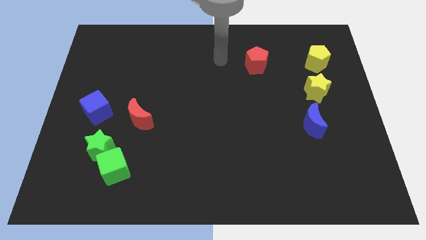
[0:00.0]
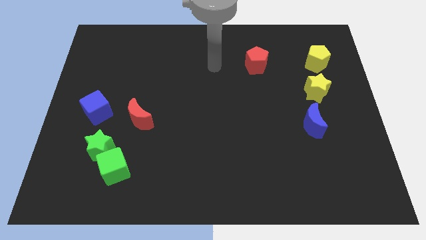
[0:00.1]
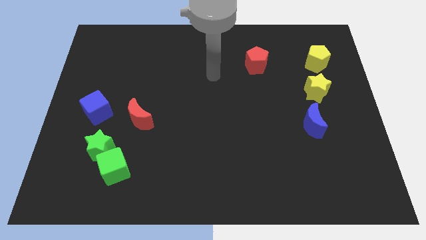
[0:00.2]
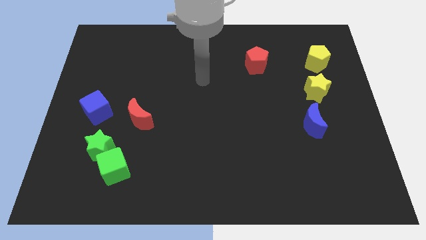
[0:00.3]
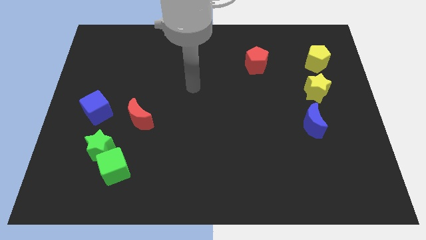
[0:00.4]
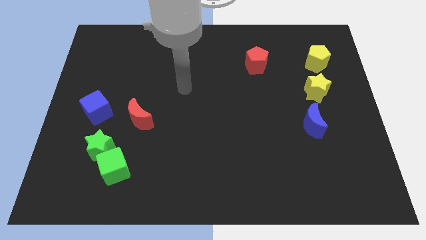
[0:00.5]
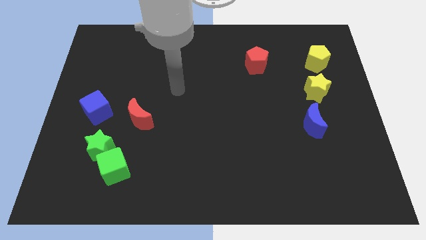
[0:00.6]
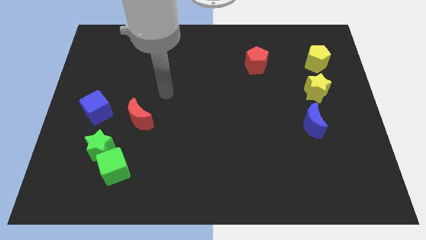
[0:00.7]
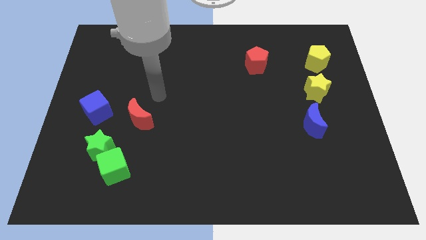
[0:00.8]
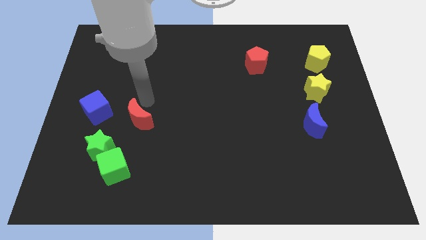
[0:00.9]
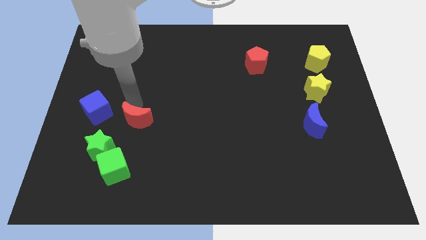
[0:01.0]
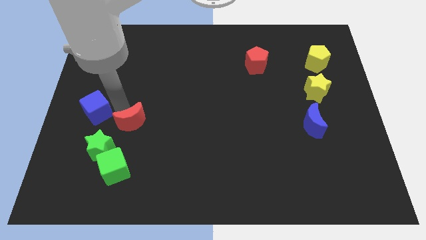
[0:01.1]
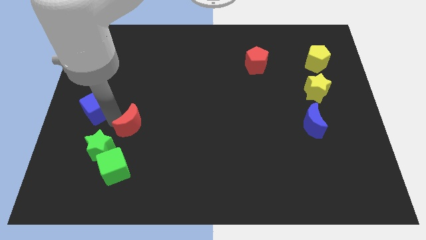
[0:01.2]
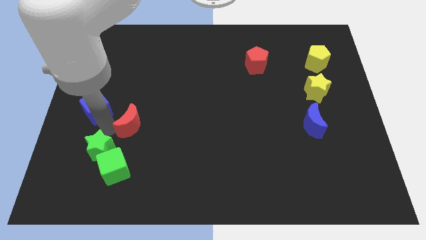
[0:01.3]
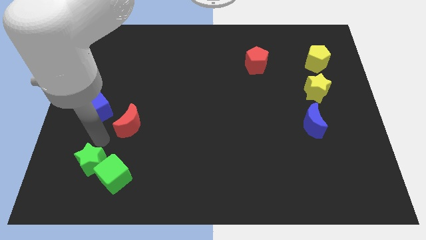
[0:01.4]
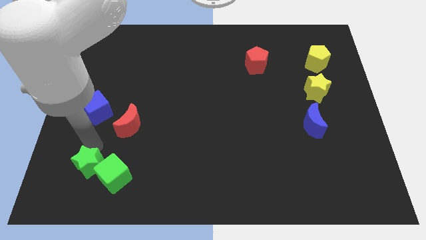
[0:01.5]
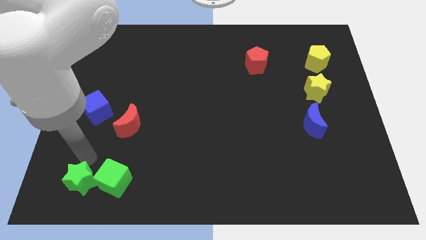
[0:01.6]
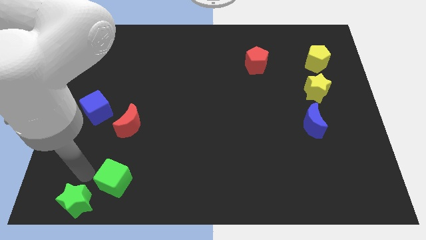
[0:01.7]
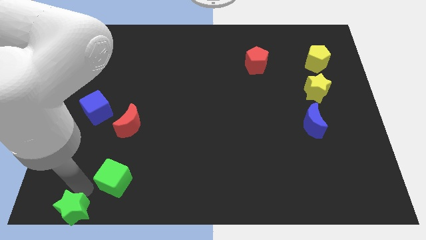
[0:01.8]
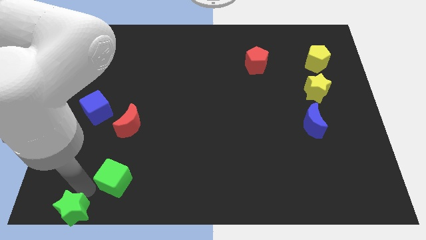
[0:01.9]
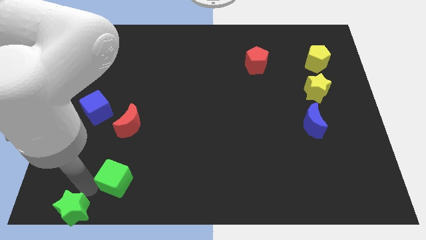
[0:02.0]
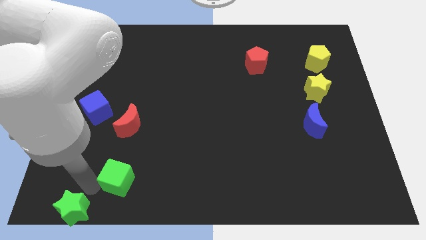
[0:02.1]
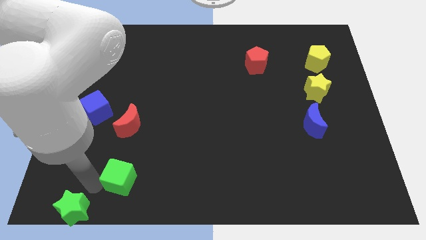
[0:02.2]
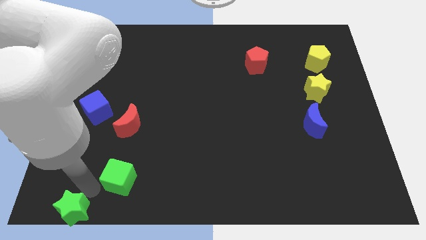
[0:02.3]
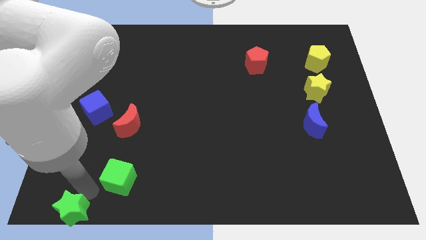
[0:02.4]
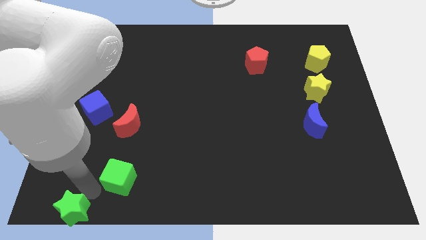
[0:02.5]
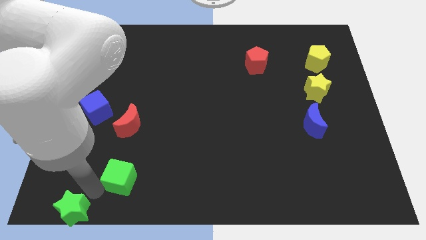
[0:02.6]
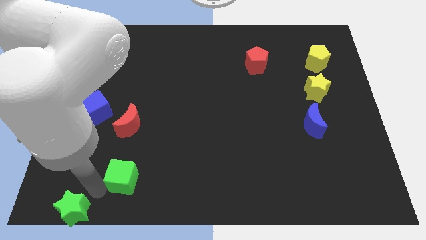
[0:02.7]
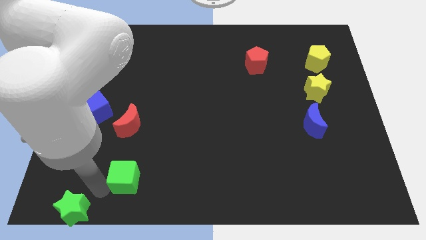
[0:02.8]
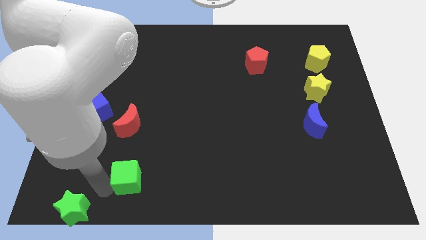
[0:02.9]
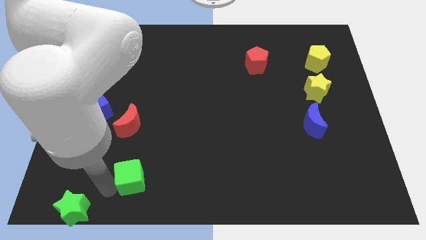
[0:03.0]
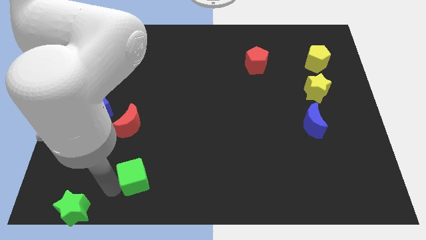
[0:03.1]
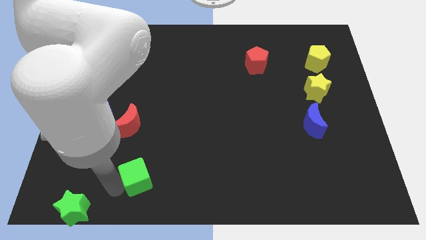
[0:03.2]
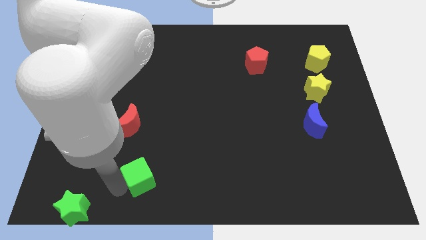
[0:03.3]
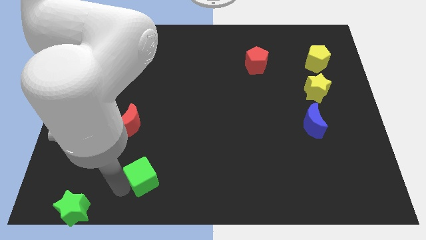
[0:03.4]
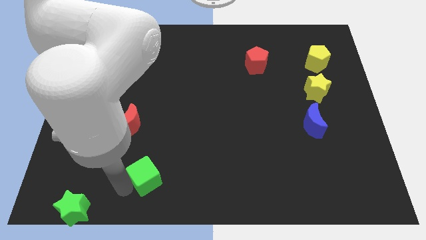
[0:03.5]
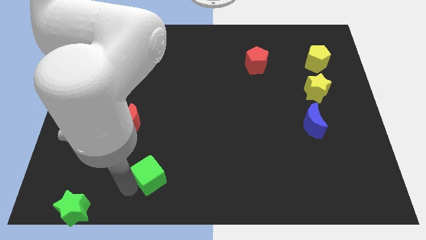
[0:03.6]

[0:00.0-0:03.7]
move the green cube right slightly

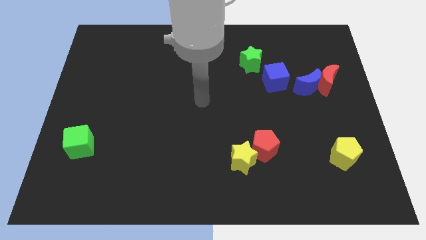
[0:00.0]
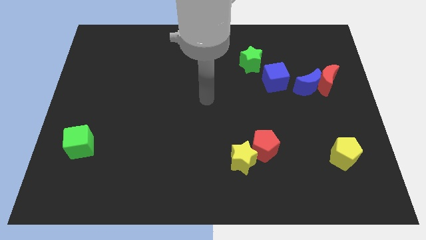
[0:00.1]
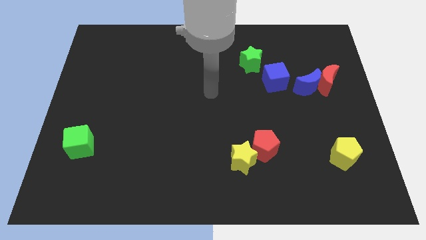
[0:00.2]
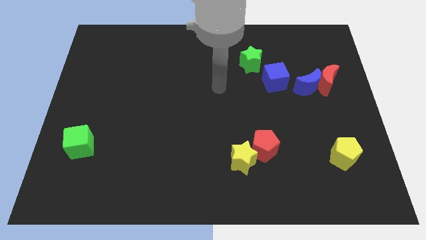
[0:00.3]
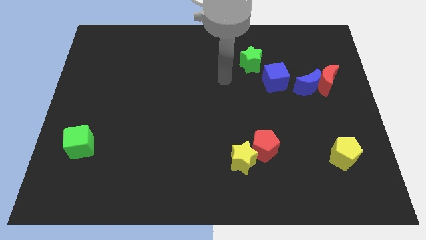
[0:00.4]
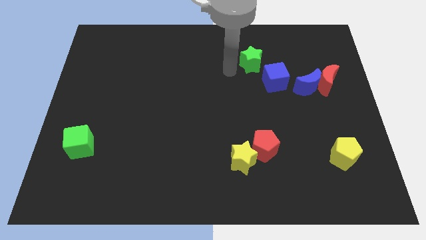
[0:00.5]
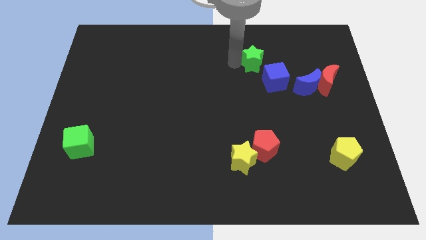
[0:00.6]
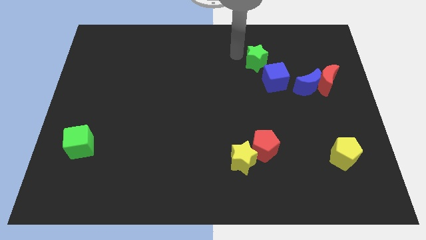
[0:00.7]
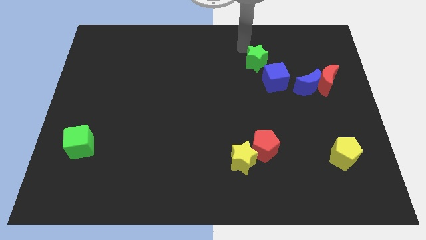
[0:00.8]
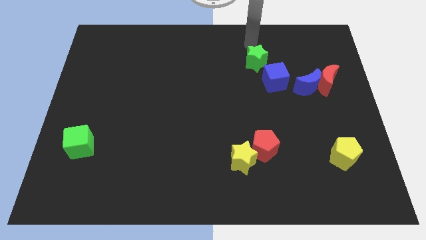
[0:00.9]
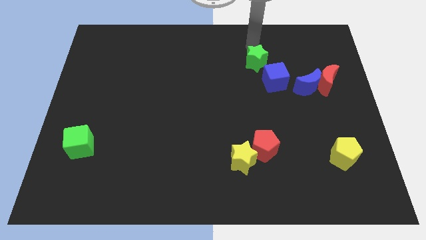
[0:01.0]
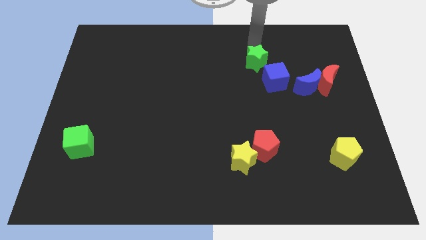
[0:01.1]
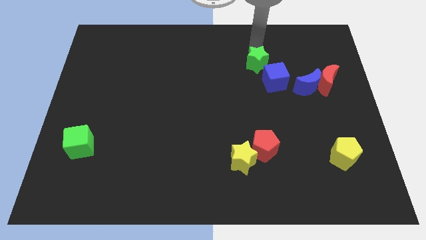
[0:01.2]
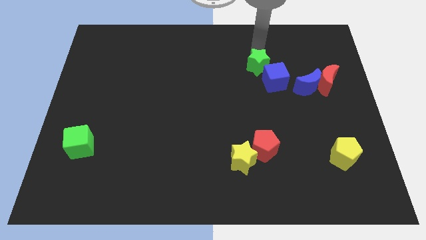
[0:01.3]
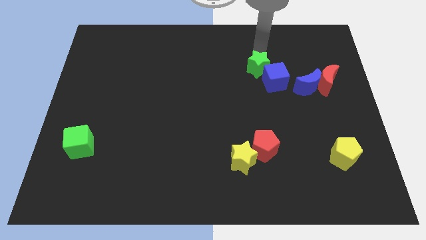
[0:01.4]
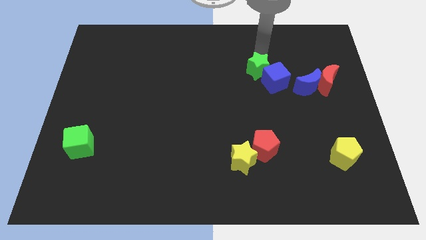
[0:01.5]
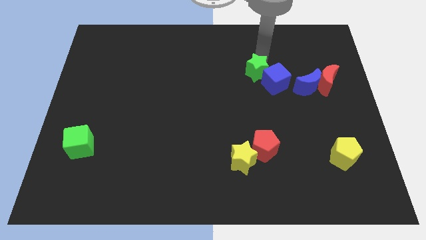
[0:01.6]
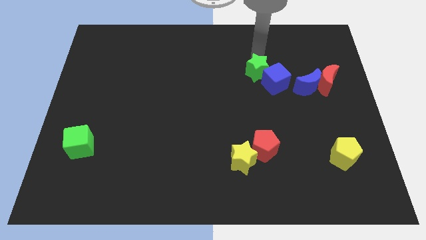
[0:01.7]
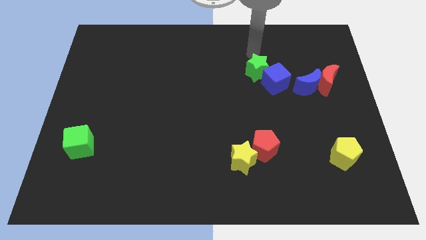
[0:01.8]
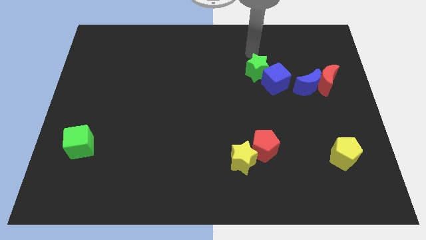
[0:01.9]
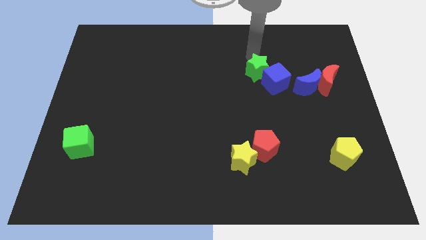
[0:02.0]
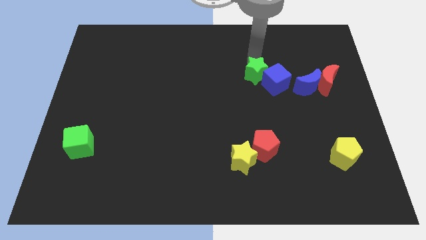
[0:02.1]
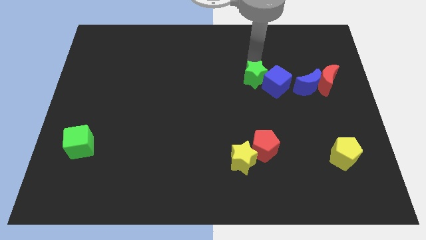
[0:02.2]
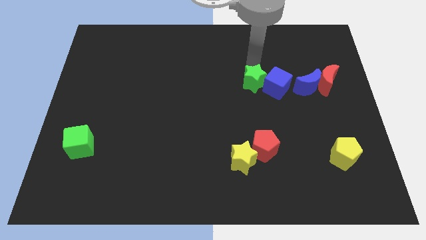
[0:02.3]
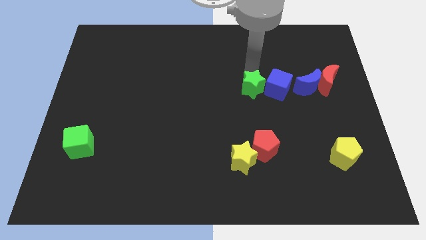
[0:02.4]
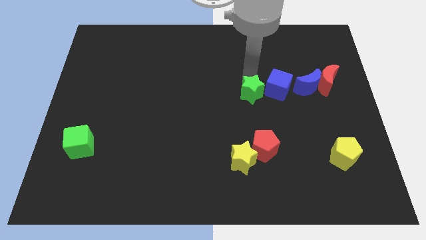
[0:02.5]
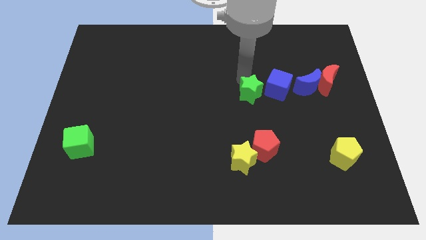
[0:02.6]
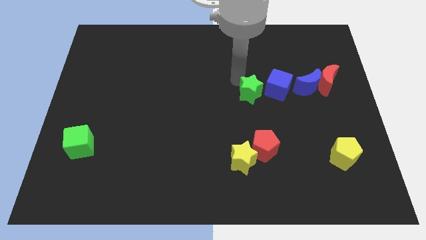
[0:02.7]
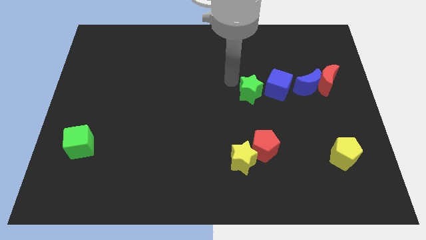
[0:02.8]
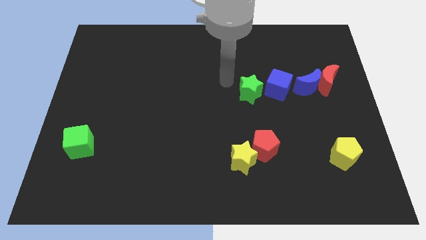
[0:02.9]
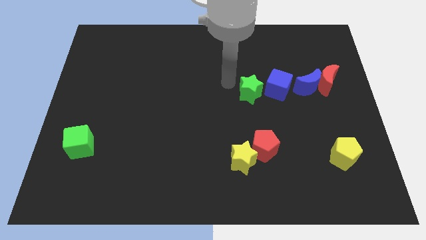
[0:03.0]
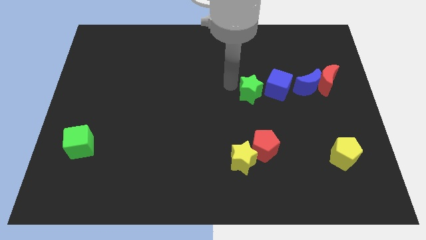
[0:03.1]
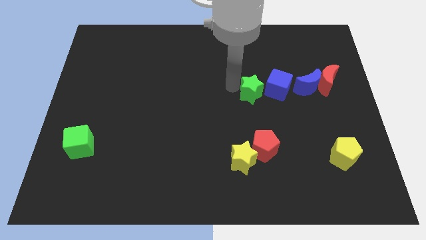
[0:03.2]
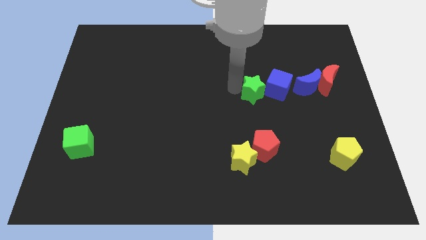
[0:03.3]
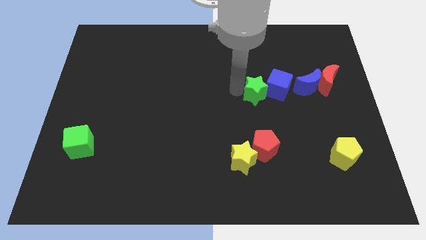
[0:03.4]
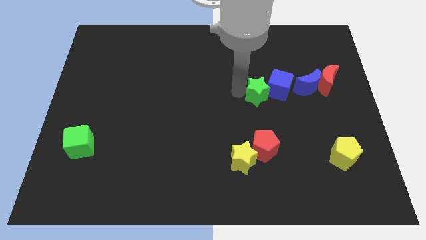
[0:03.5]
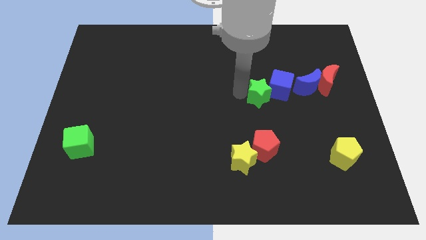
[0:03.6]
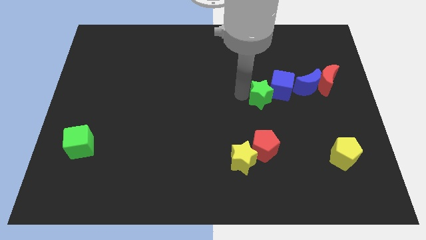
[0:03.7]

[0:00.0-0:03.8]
push the green star downwards and then to the right a little
